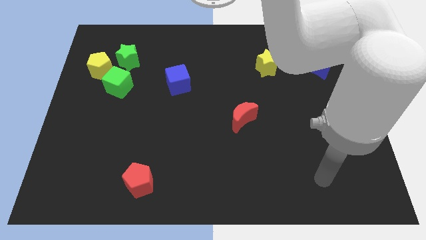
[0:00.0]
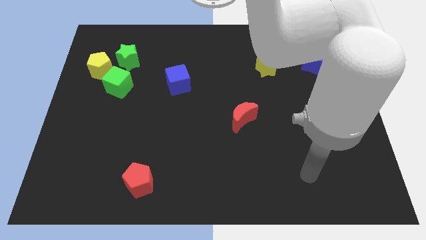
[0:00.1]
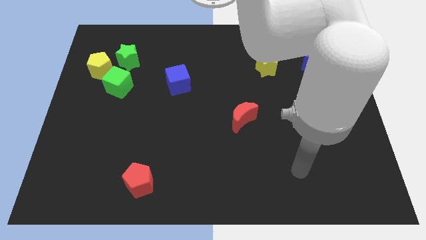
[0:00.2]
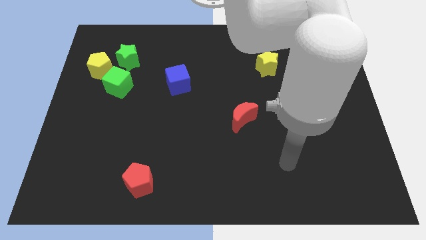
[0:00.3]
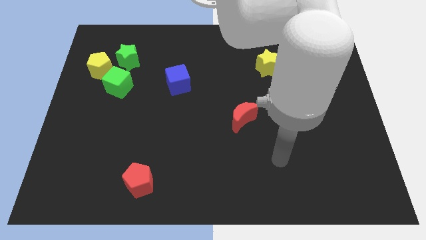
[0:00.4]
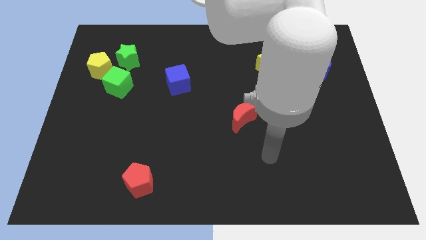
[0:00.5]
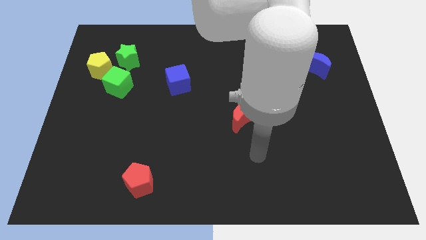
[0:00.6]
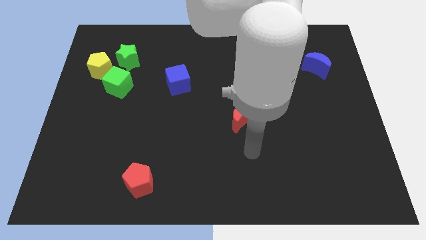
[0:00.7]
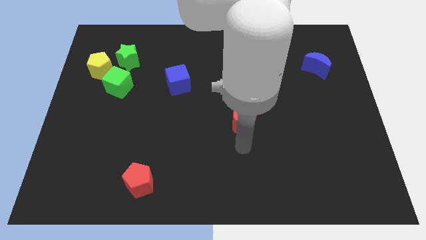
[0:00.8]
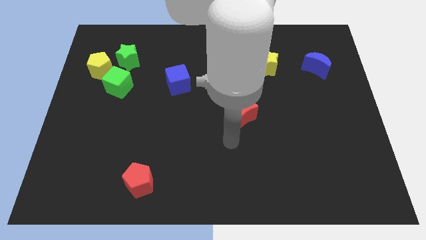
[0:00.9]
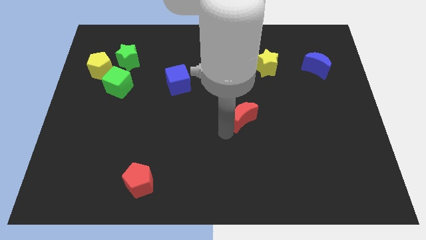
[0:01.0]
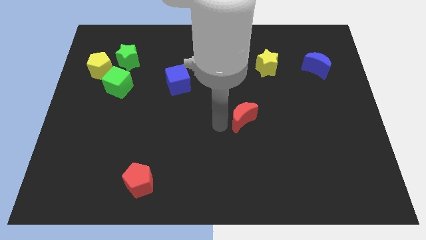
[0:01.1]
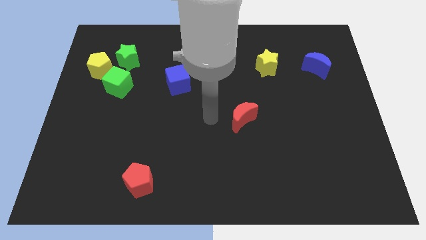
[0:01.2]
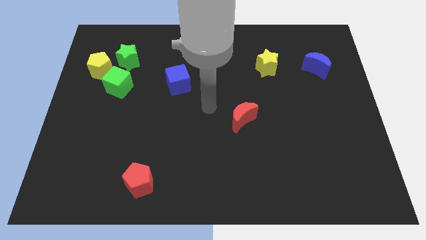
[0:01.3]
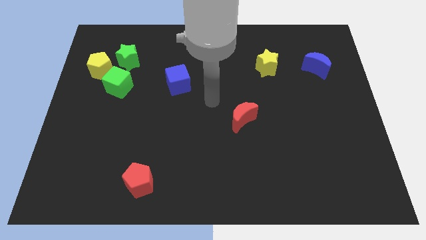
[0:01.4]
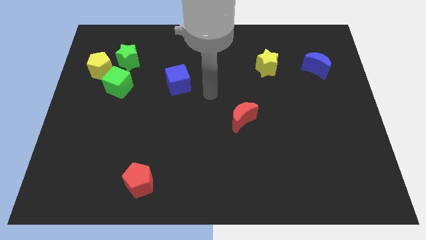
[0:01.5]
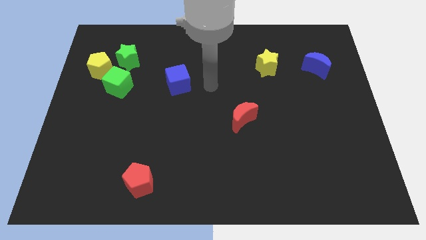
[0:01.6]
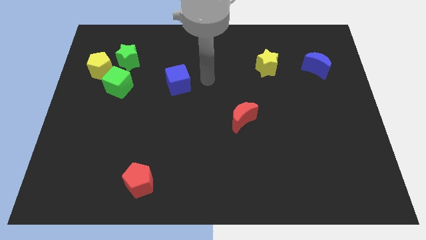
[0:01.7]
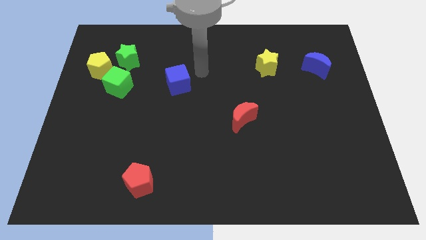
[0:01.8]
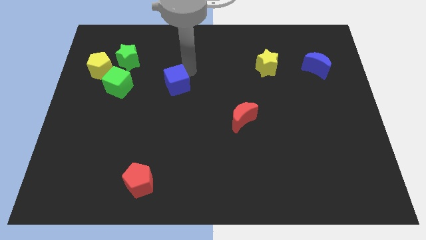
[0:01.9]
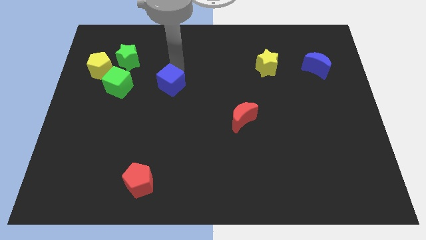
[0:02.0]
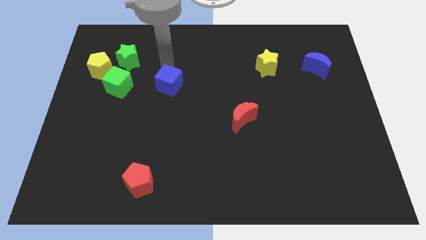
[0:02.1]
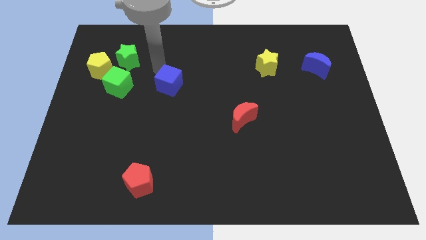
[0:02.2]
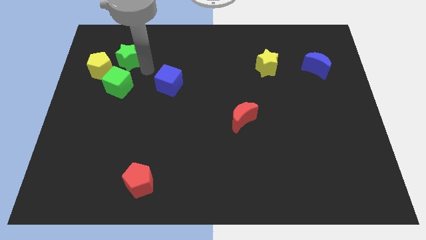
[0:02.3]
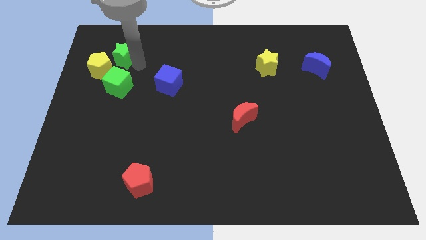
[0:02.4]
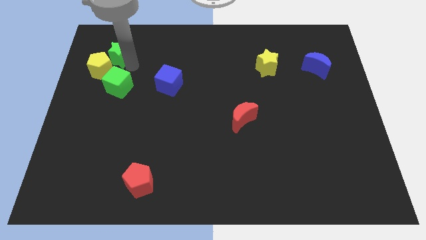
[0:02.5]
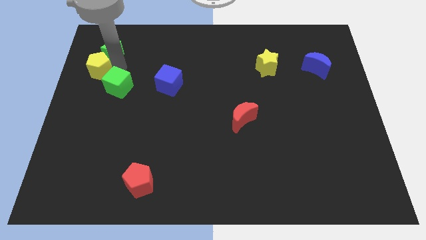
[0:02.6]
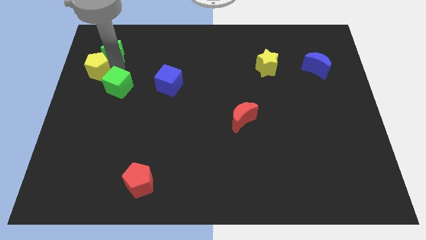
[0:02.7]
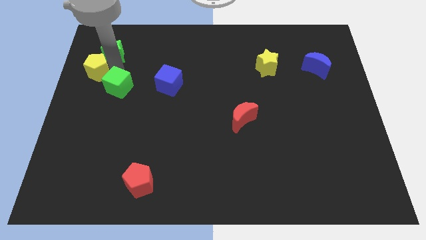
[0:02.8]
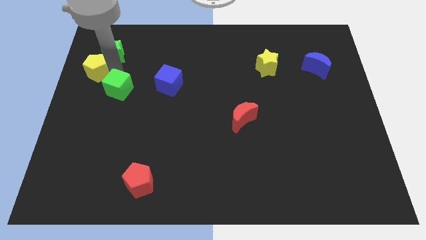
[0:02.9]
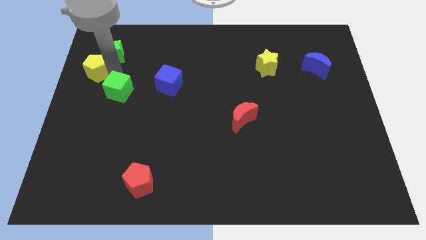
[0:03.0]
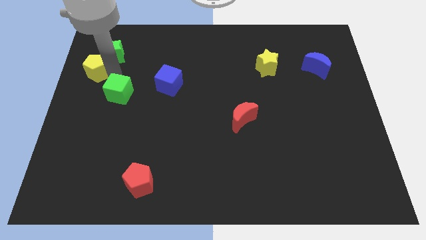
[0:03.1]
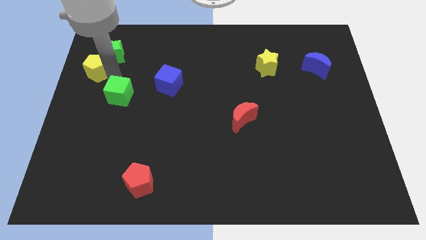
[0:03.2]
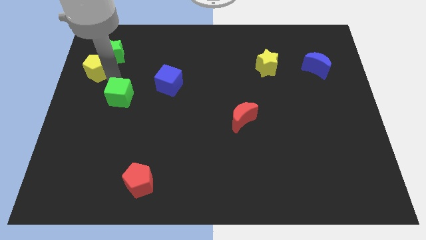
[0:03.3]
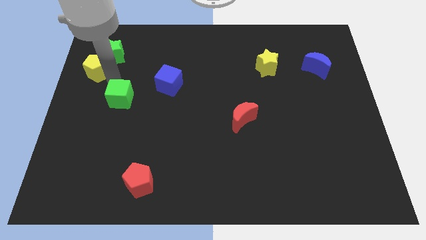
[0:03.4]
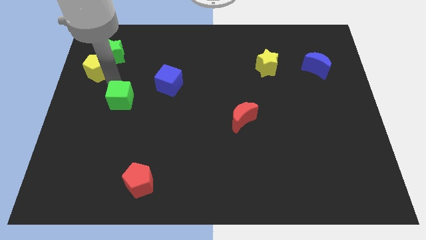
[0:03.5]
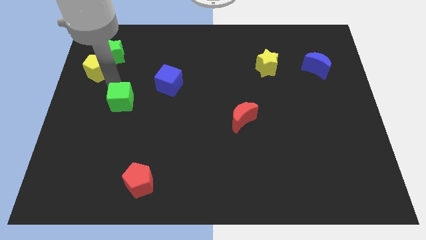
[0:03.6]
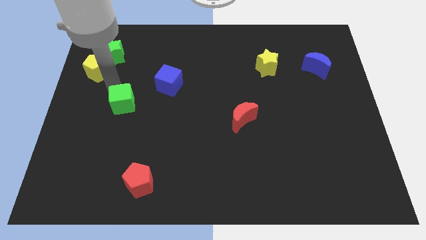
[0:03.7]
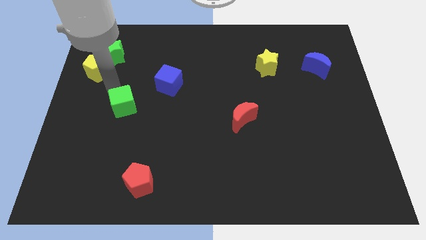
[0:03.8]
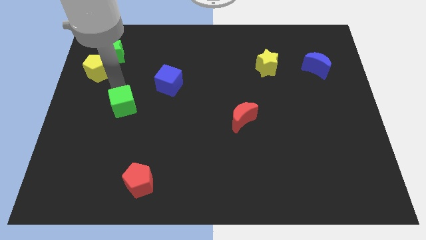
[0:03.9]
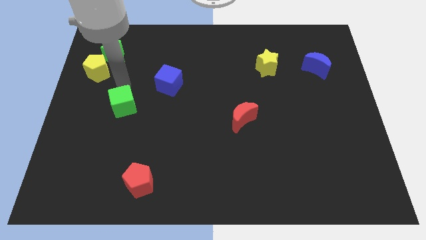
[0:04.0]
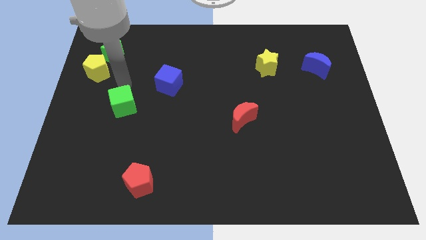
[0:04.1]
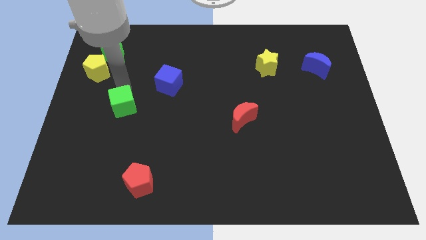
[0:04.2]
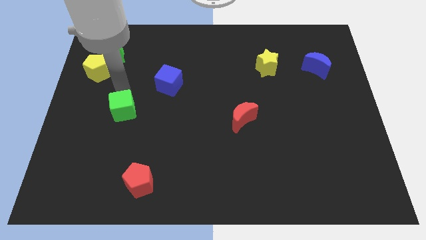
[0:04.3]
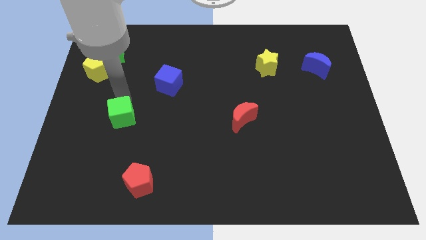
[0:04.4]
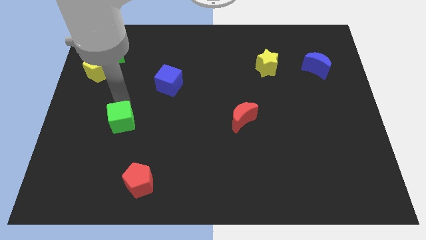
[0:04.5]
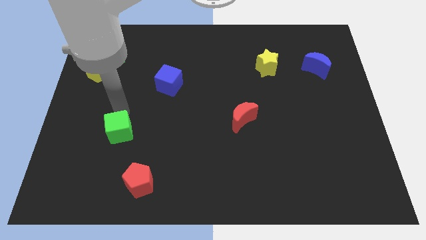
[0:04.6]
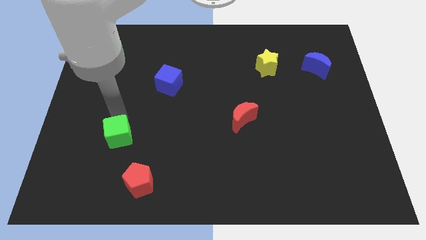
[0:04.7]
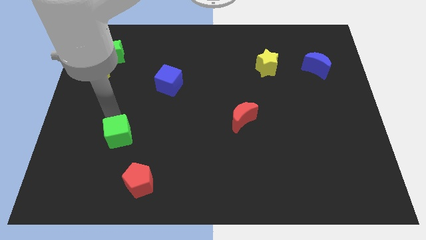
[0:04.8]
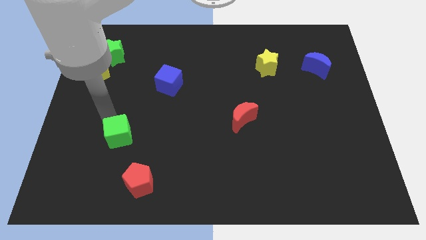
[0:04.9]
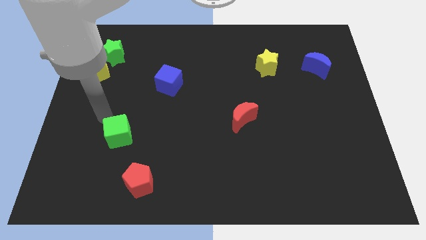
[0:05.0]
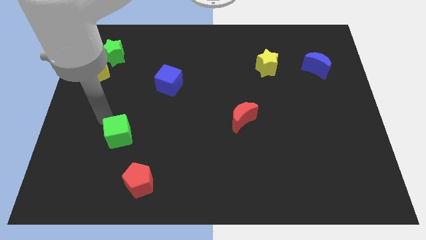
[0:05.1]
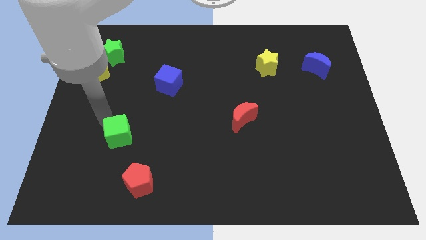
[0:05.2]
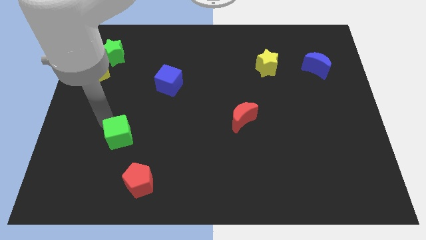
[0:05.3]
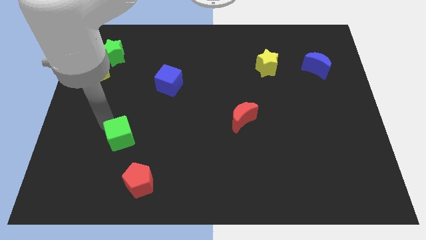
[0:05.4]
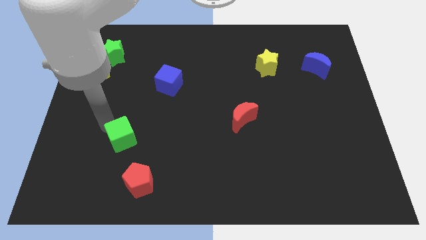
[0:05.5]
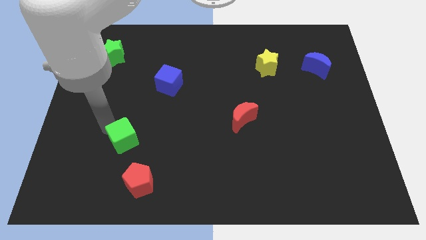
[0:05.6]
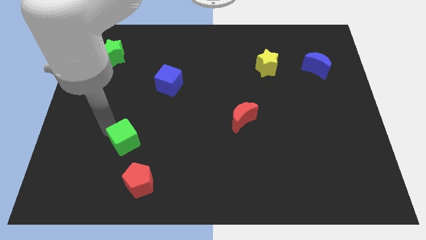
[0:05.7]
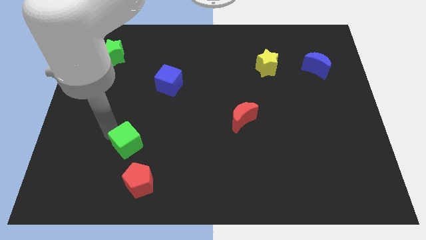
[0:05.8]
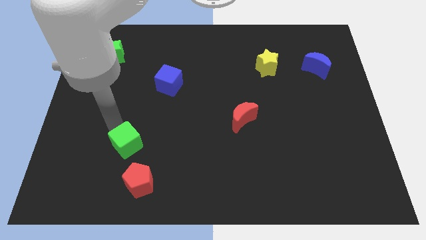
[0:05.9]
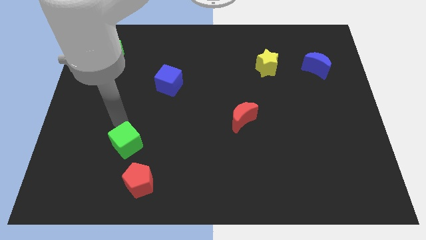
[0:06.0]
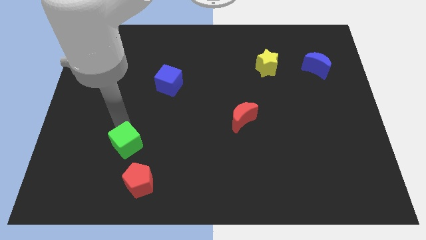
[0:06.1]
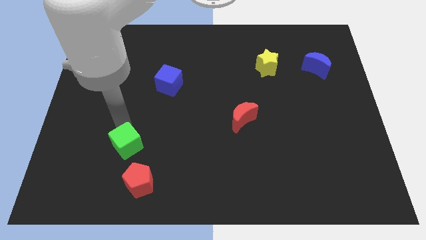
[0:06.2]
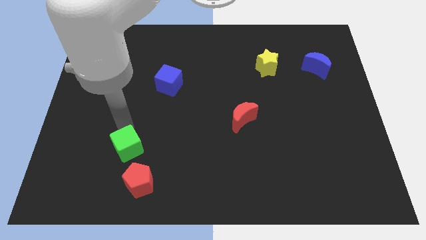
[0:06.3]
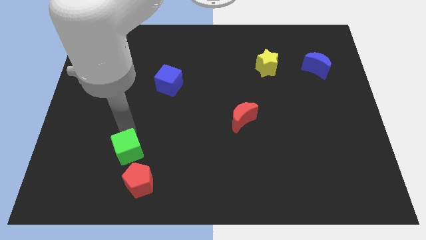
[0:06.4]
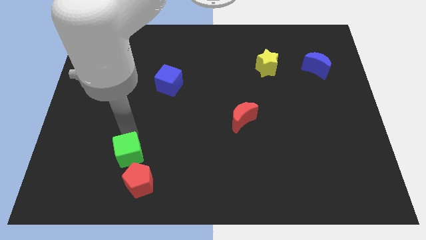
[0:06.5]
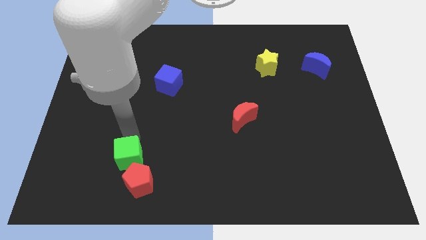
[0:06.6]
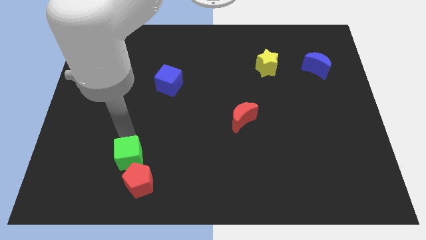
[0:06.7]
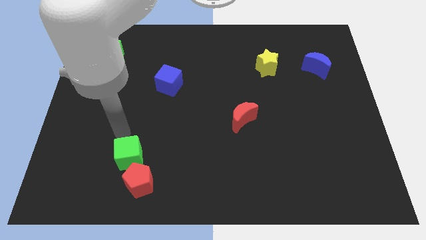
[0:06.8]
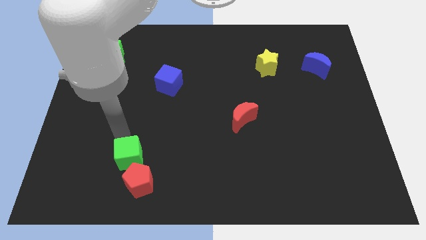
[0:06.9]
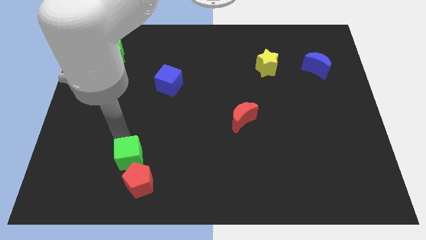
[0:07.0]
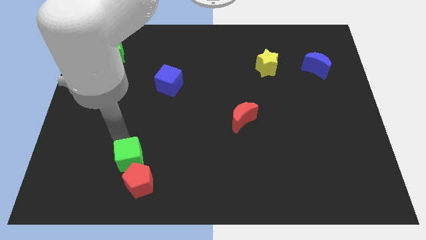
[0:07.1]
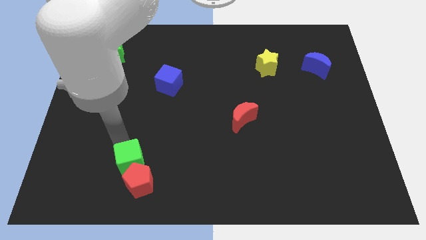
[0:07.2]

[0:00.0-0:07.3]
move the green cube towards the red pentagon

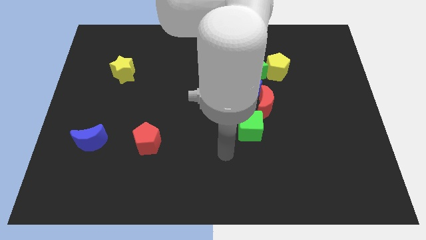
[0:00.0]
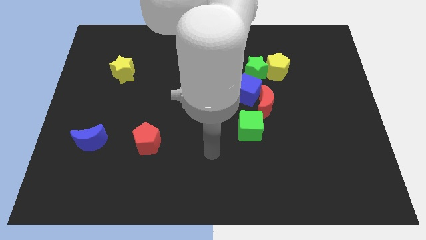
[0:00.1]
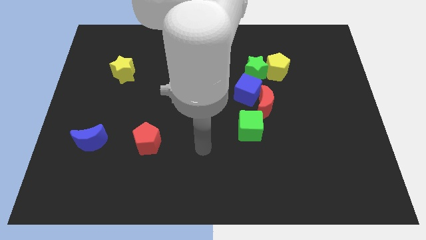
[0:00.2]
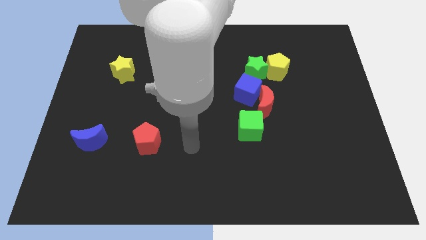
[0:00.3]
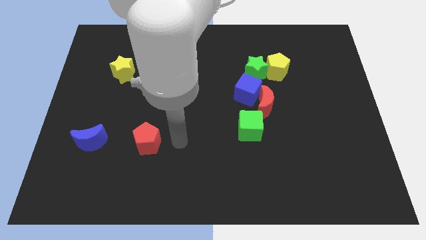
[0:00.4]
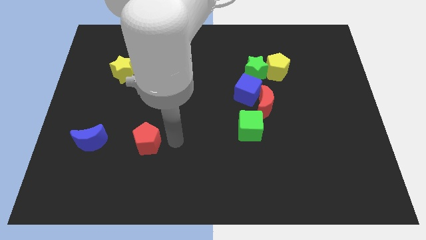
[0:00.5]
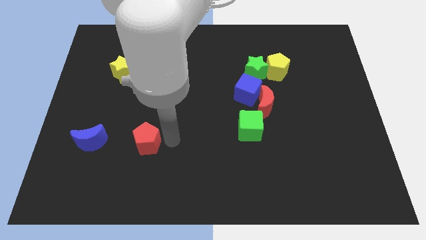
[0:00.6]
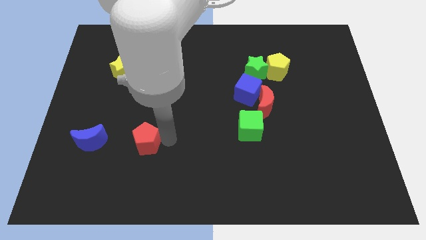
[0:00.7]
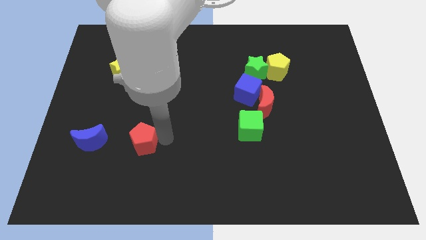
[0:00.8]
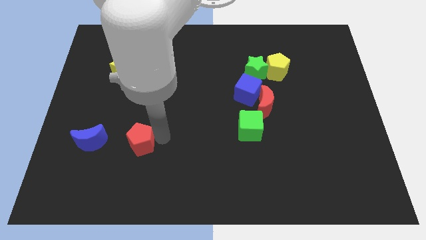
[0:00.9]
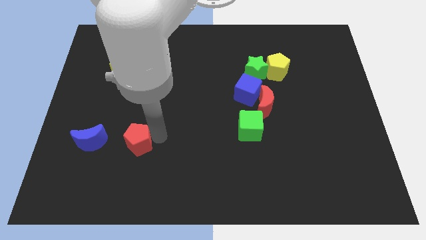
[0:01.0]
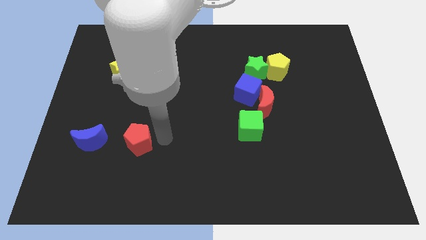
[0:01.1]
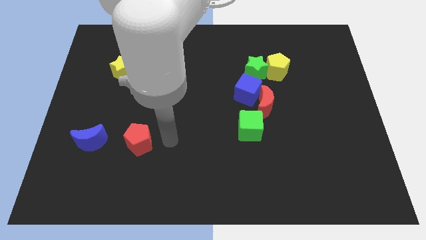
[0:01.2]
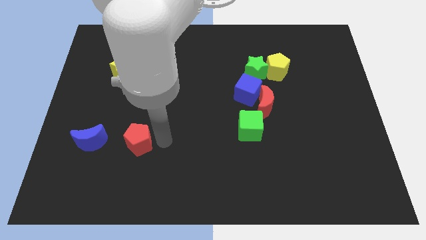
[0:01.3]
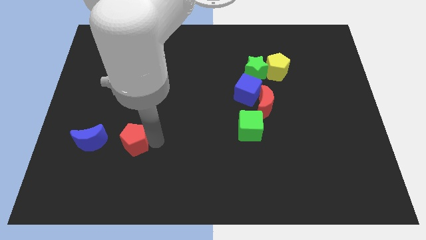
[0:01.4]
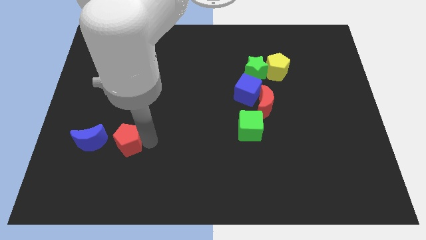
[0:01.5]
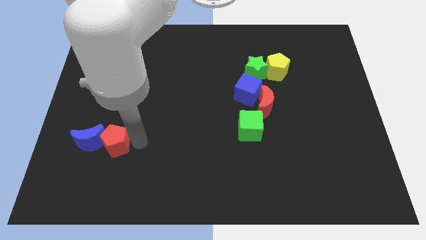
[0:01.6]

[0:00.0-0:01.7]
move the red pentagon towards the blue moon
